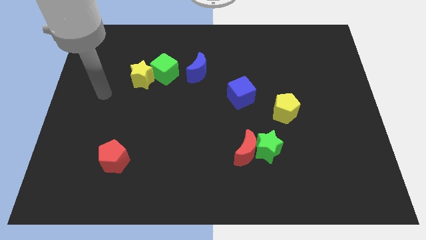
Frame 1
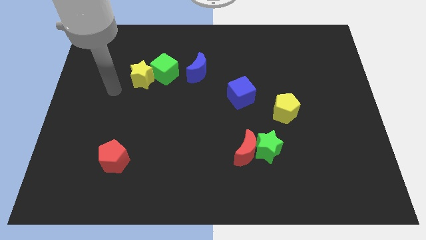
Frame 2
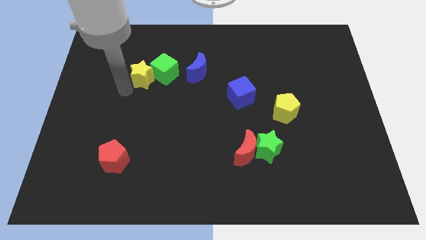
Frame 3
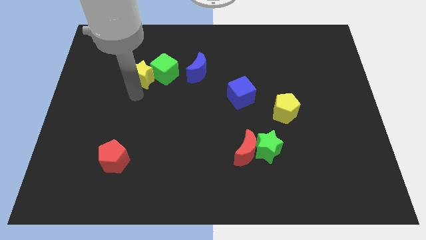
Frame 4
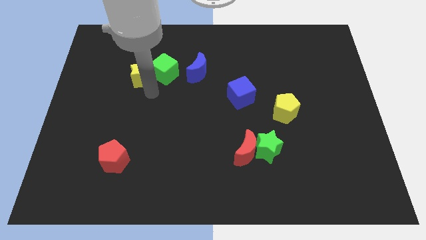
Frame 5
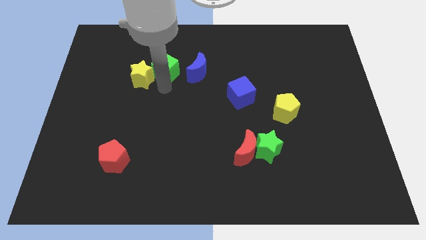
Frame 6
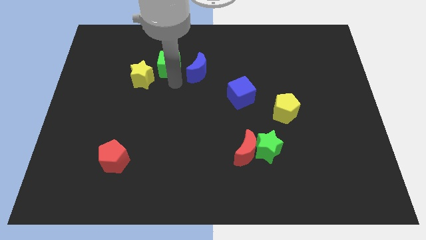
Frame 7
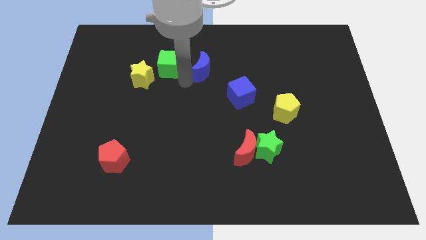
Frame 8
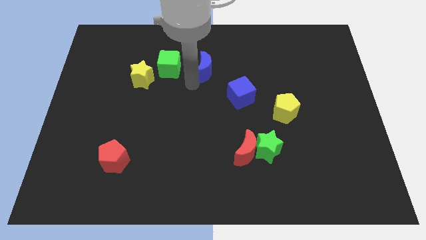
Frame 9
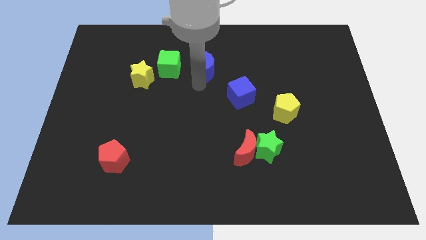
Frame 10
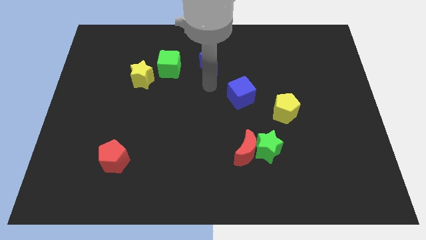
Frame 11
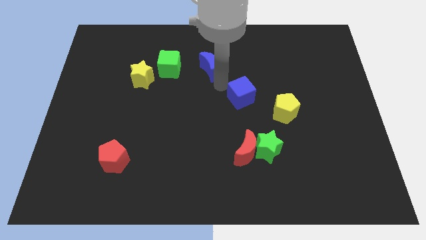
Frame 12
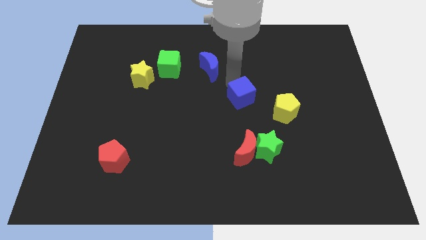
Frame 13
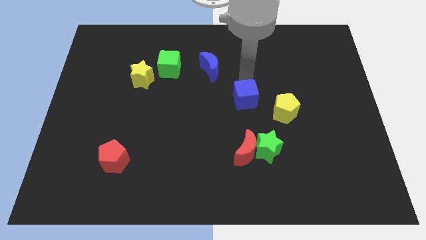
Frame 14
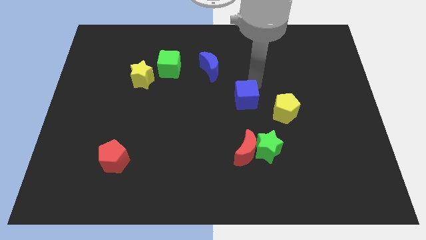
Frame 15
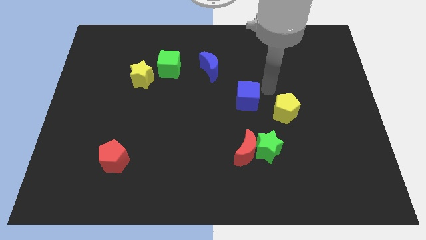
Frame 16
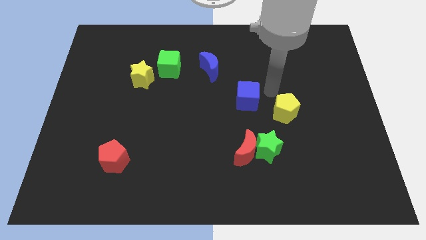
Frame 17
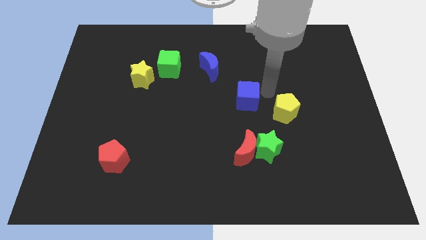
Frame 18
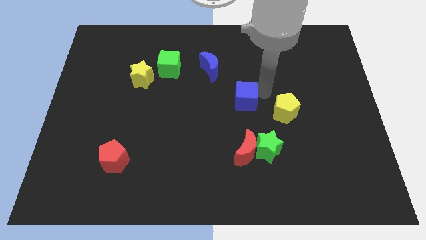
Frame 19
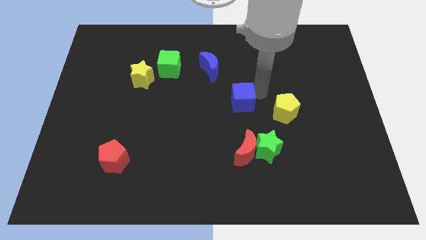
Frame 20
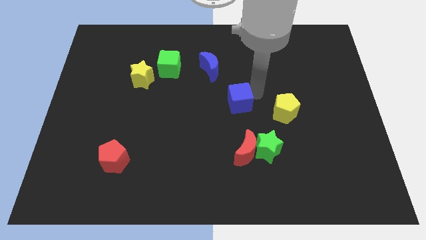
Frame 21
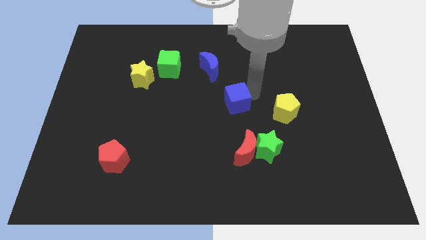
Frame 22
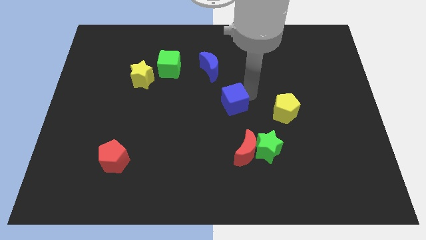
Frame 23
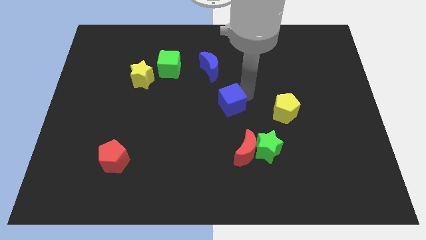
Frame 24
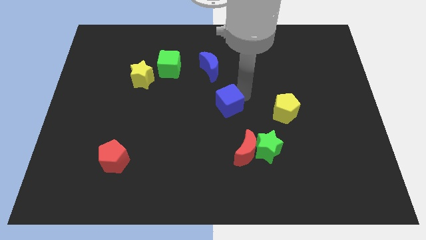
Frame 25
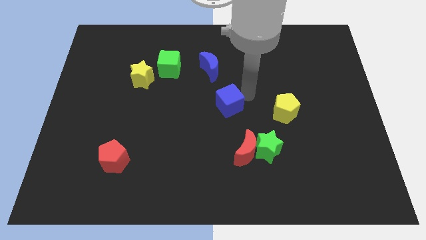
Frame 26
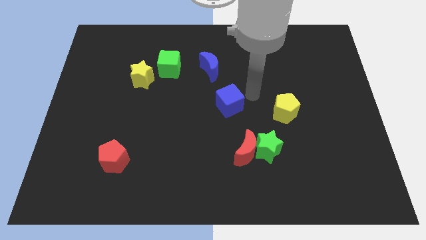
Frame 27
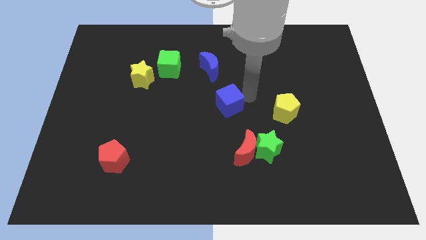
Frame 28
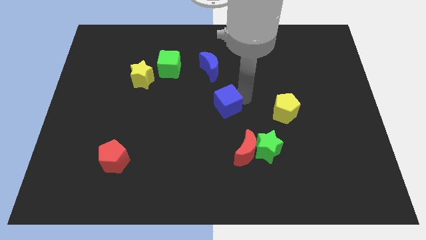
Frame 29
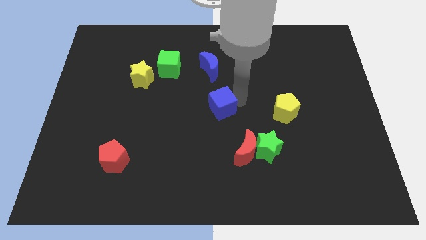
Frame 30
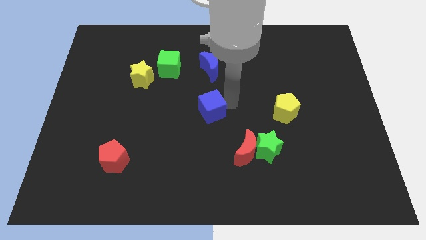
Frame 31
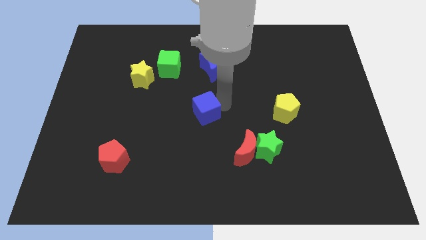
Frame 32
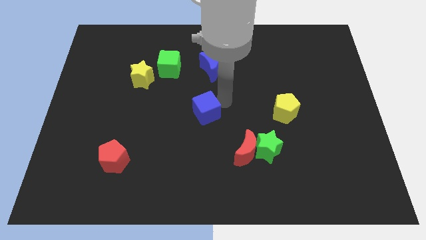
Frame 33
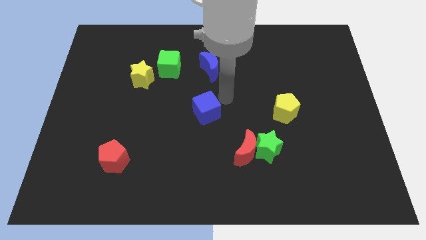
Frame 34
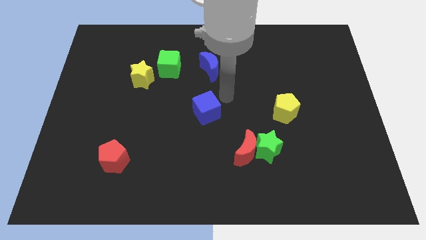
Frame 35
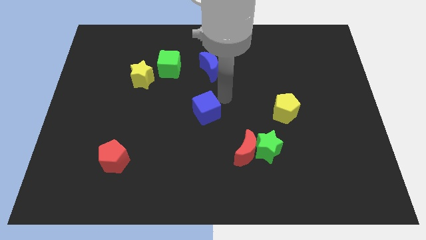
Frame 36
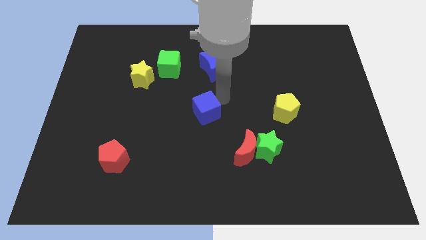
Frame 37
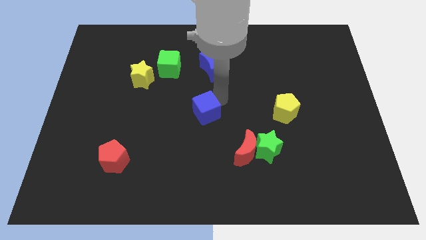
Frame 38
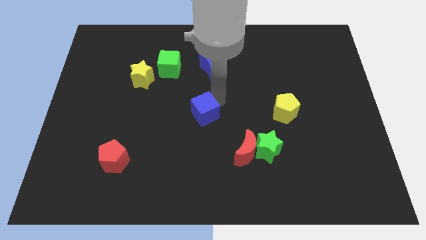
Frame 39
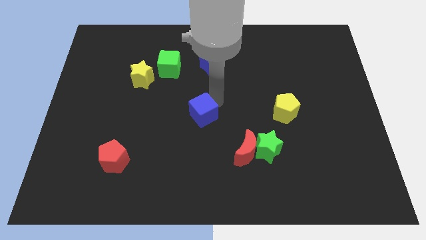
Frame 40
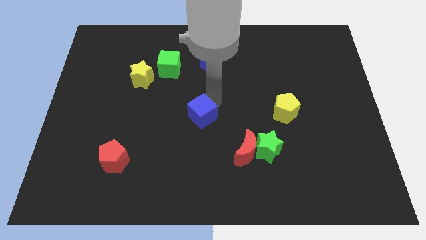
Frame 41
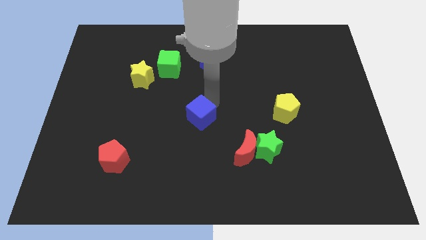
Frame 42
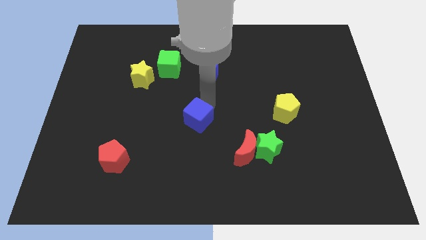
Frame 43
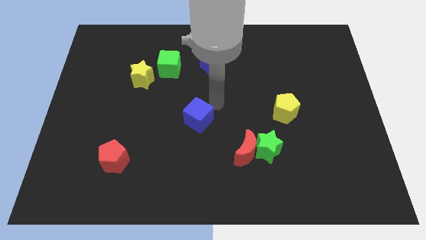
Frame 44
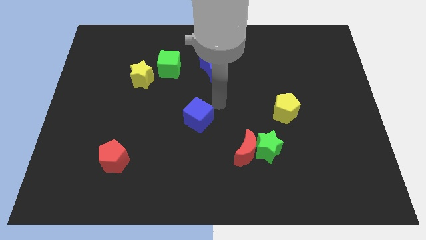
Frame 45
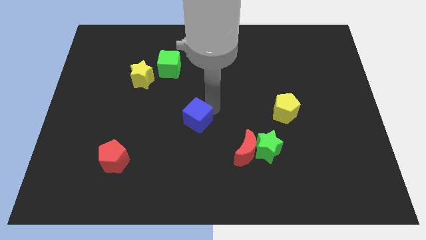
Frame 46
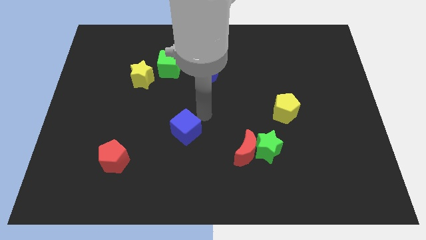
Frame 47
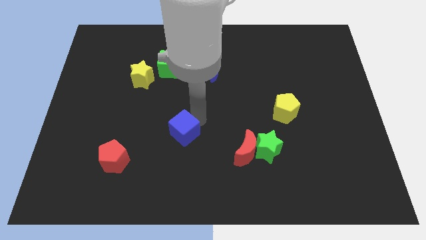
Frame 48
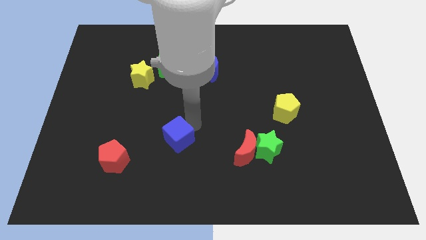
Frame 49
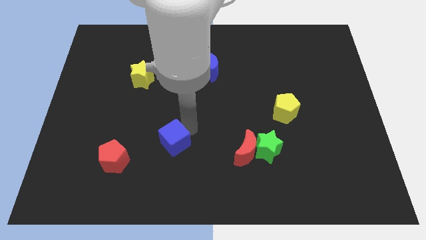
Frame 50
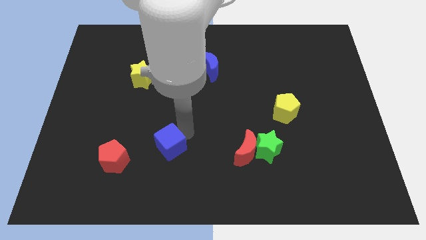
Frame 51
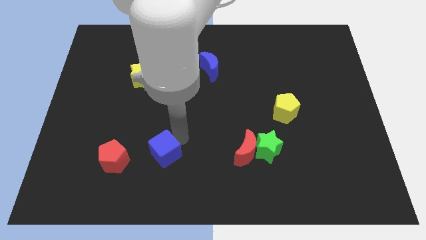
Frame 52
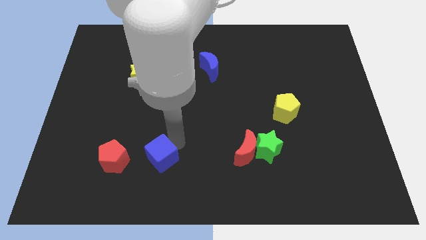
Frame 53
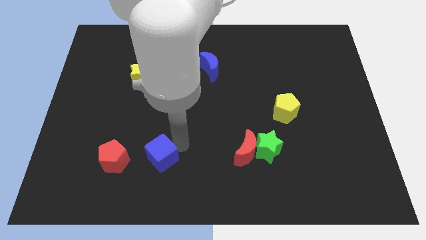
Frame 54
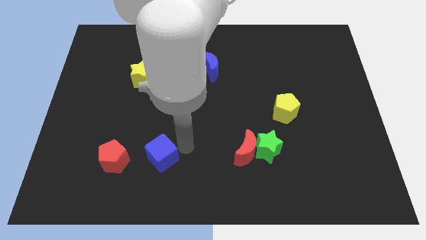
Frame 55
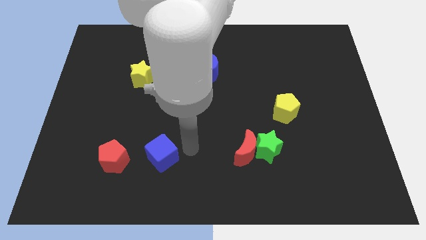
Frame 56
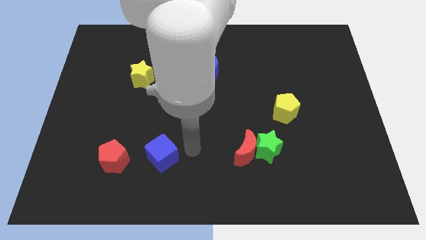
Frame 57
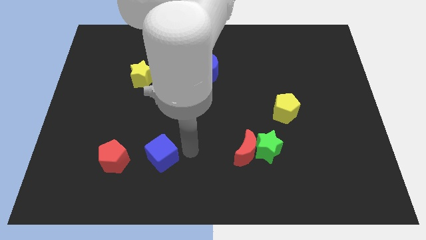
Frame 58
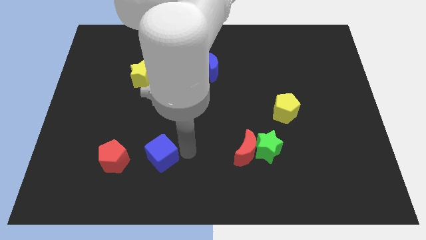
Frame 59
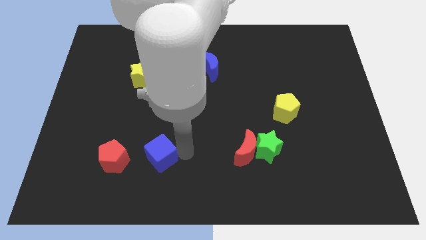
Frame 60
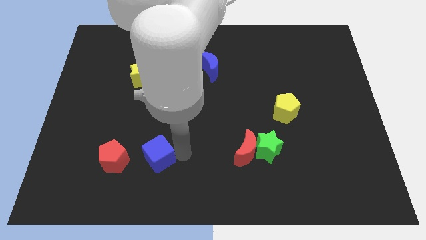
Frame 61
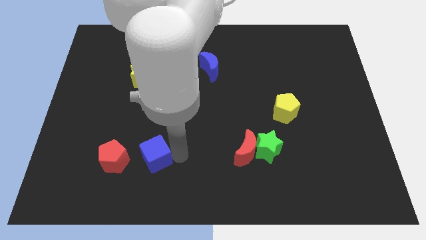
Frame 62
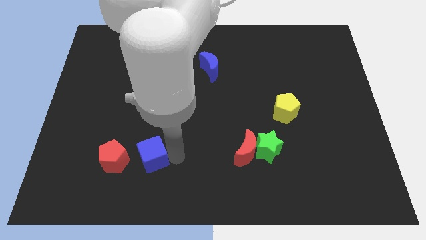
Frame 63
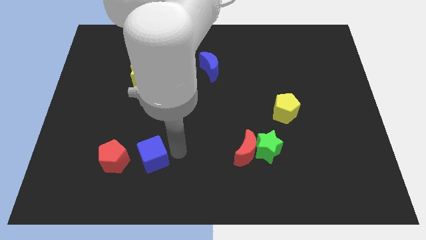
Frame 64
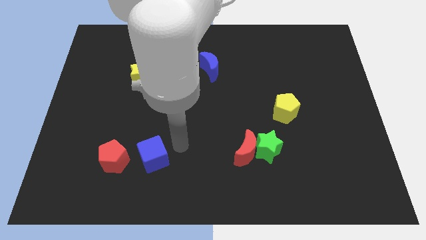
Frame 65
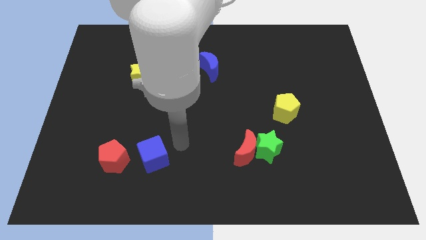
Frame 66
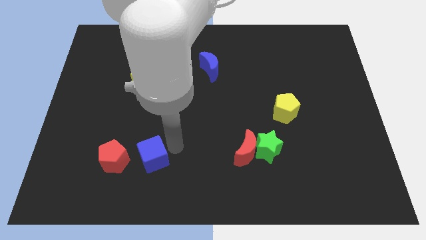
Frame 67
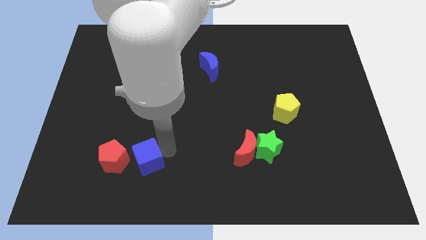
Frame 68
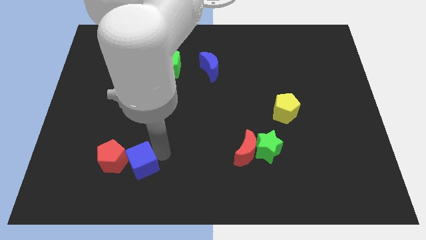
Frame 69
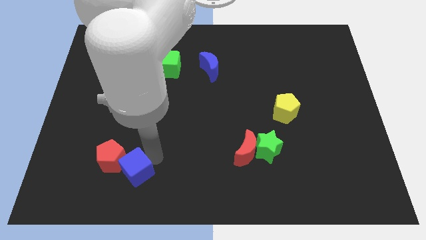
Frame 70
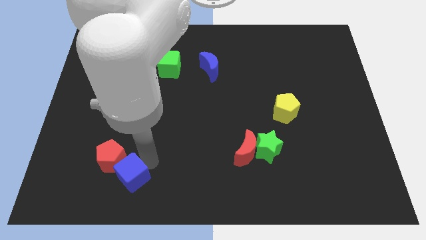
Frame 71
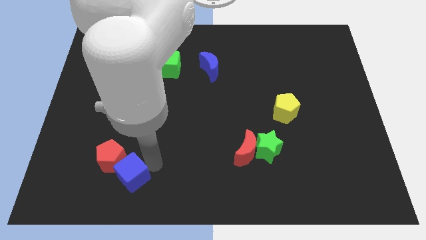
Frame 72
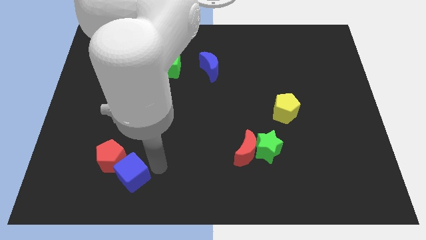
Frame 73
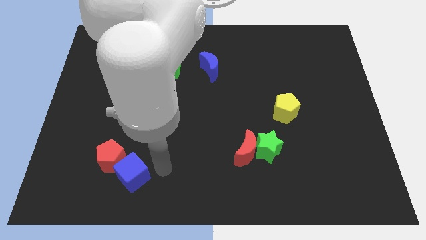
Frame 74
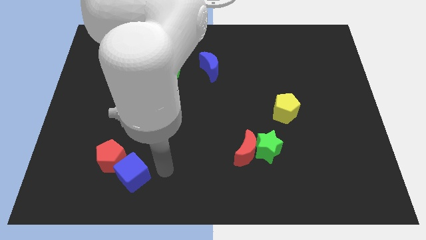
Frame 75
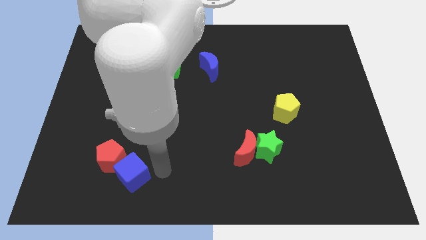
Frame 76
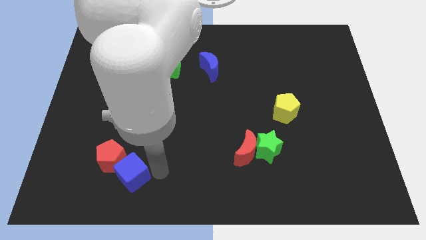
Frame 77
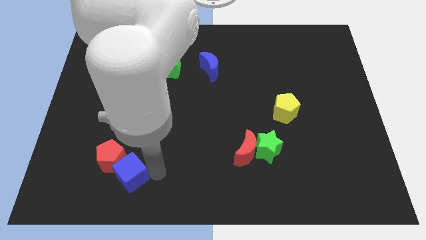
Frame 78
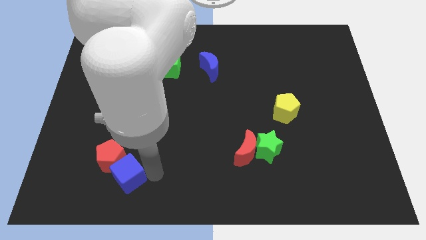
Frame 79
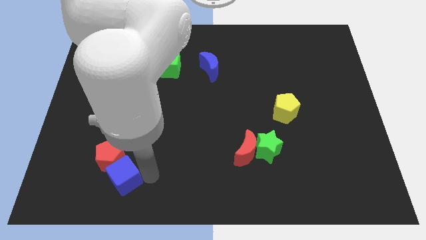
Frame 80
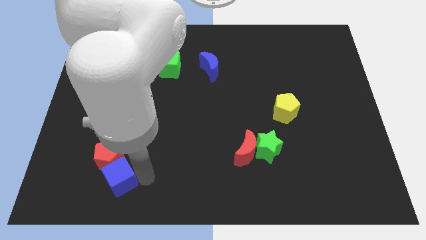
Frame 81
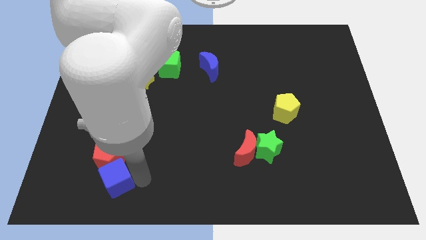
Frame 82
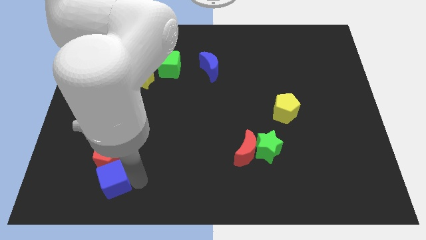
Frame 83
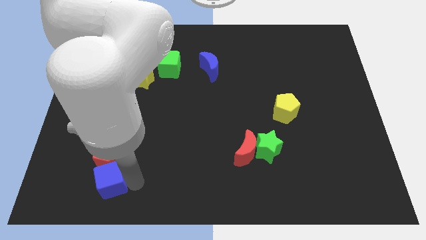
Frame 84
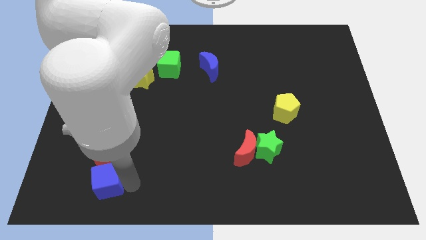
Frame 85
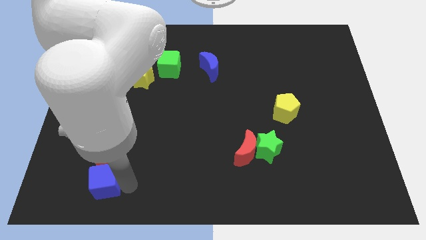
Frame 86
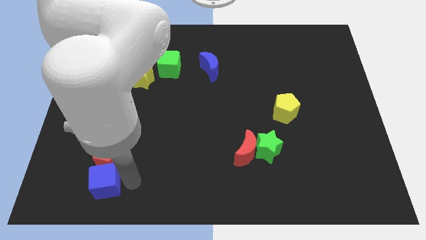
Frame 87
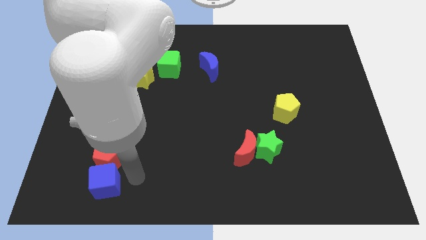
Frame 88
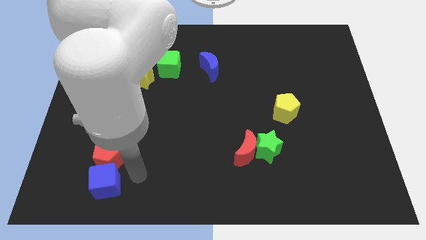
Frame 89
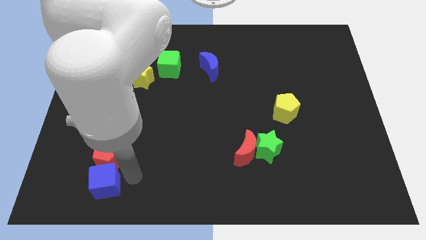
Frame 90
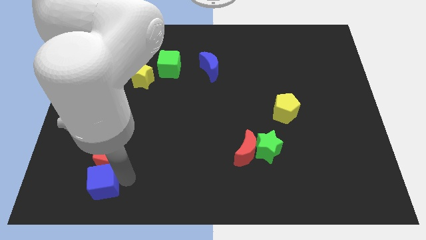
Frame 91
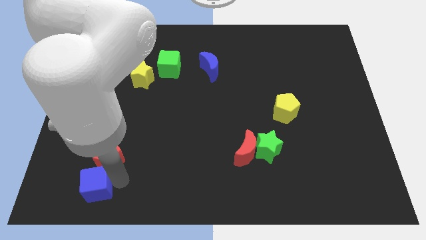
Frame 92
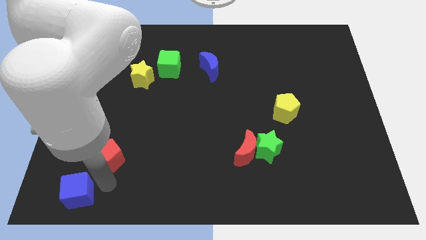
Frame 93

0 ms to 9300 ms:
slide the blue cube to the lower left corner
